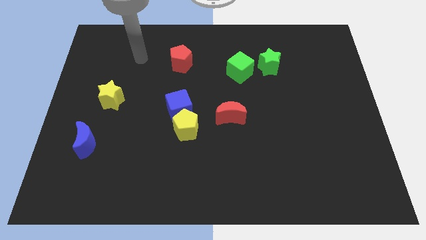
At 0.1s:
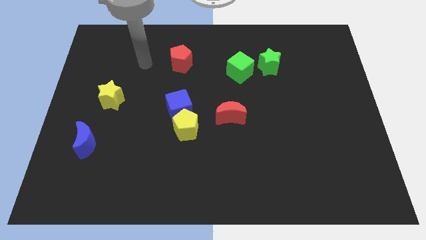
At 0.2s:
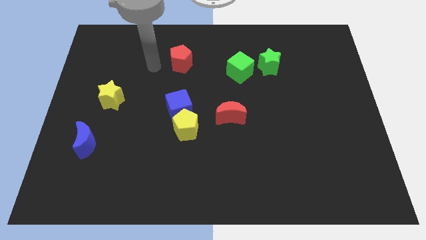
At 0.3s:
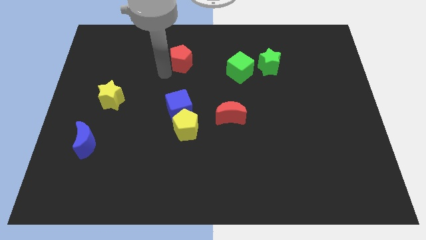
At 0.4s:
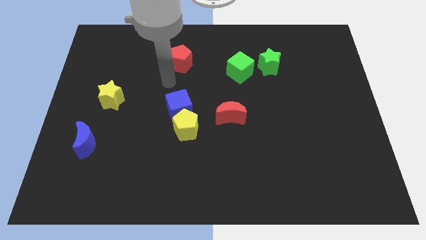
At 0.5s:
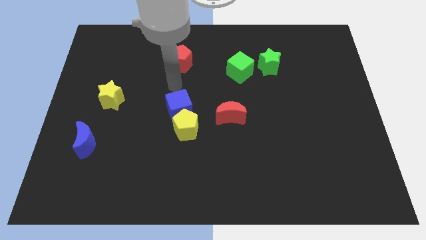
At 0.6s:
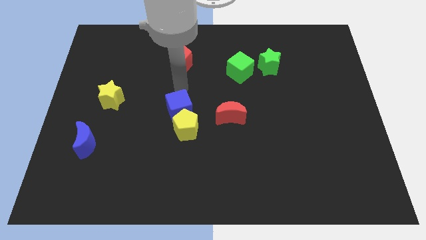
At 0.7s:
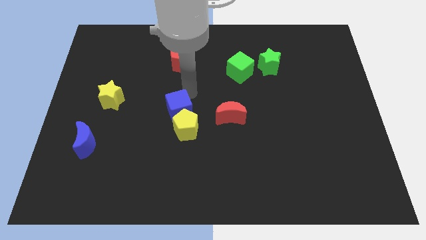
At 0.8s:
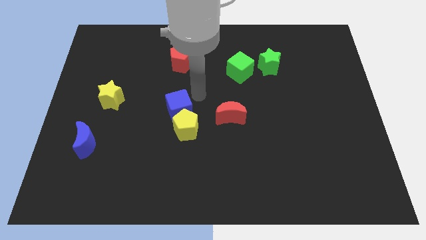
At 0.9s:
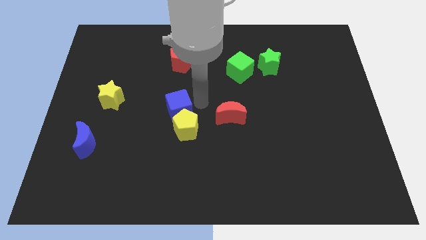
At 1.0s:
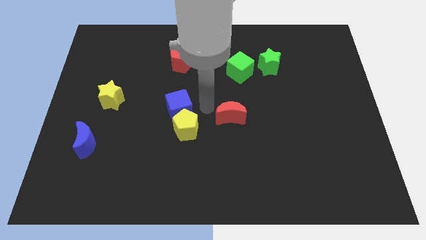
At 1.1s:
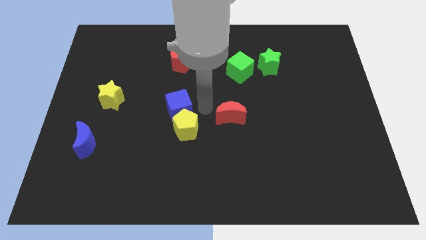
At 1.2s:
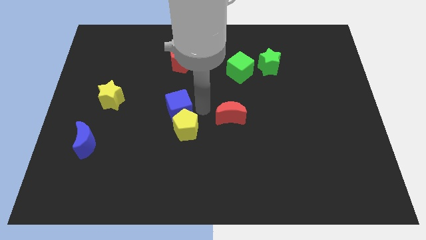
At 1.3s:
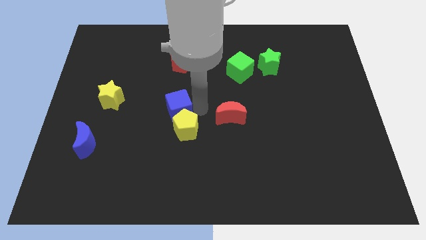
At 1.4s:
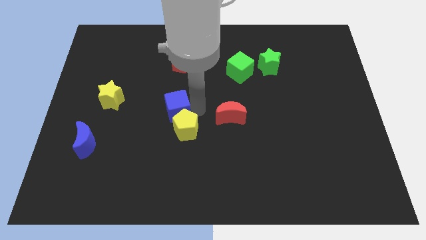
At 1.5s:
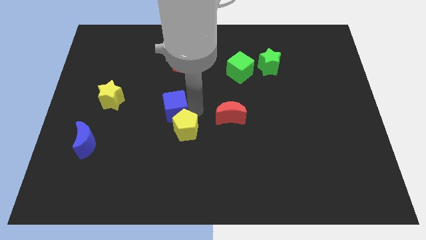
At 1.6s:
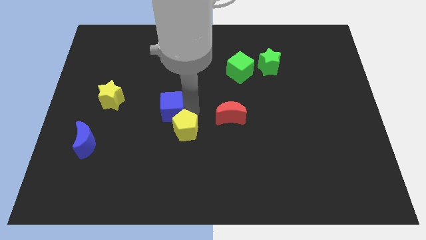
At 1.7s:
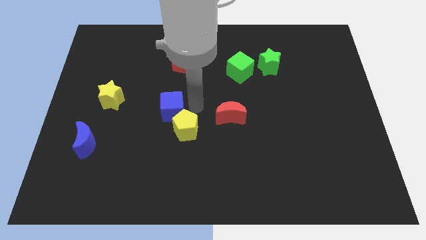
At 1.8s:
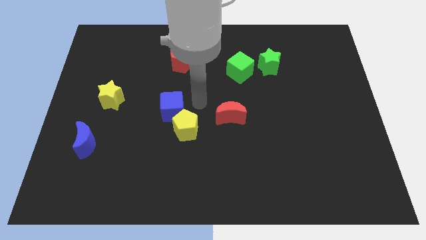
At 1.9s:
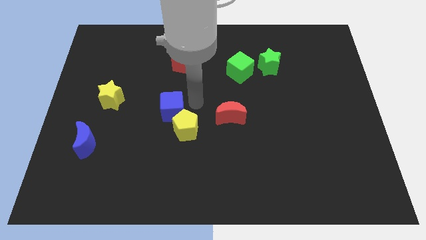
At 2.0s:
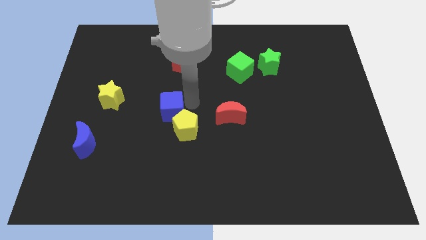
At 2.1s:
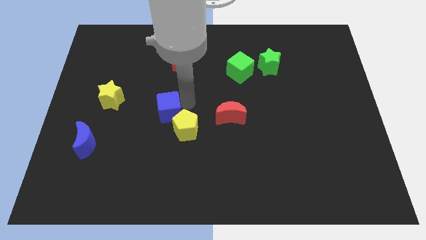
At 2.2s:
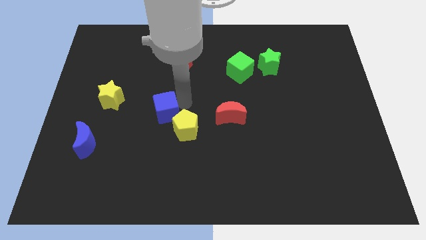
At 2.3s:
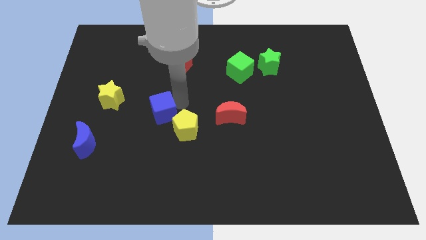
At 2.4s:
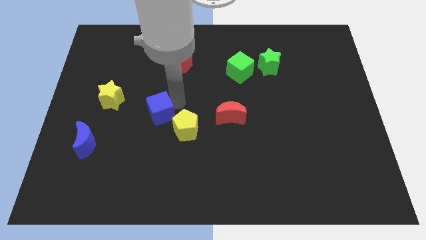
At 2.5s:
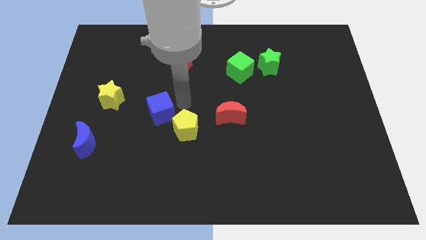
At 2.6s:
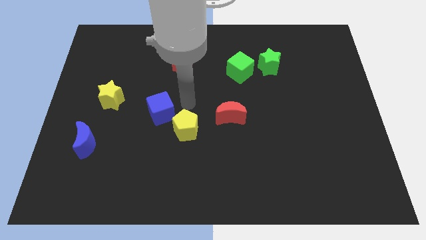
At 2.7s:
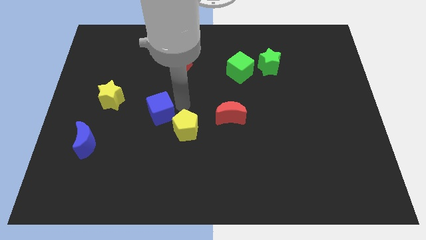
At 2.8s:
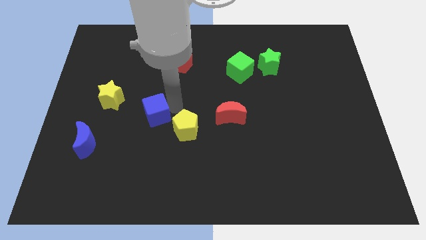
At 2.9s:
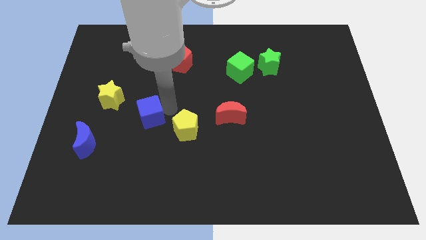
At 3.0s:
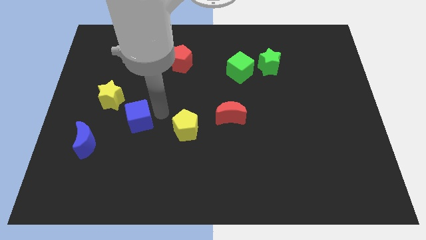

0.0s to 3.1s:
slide the blue cube slightly left

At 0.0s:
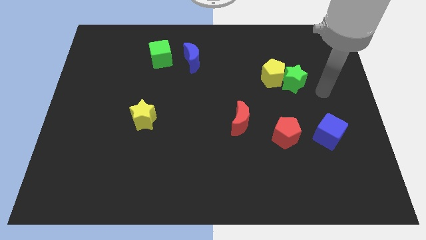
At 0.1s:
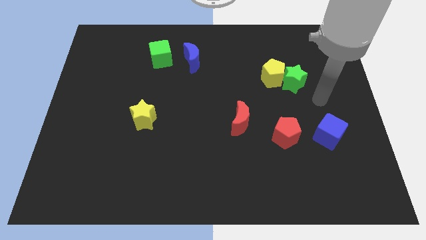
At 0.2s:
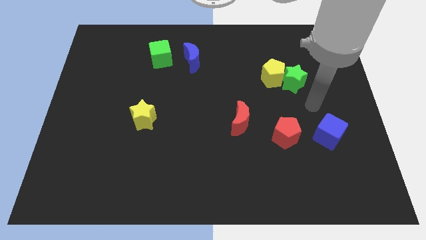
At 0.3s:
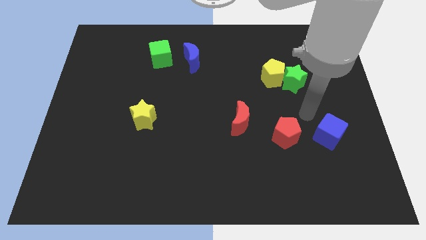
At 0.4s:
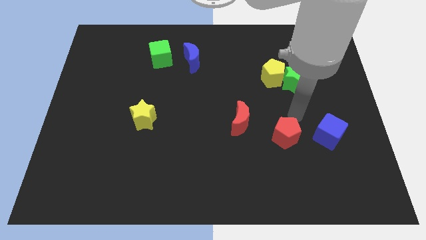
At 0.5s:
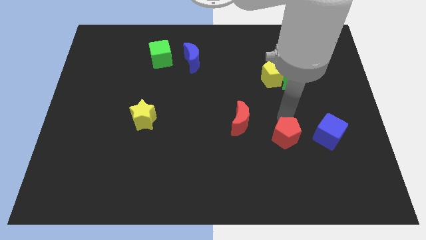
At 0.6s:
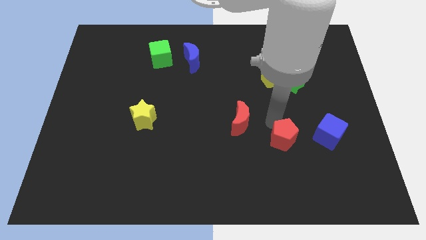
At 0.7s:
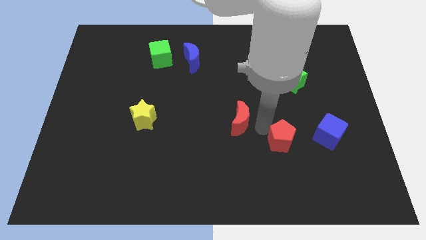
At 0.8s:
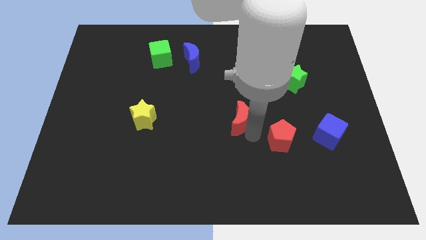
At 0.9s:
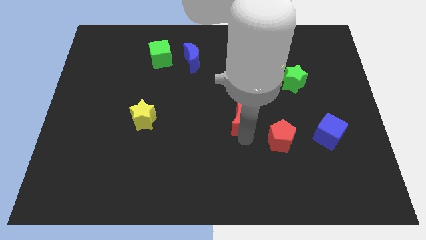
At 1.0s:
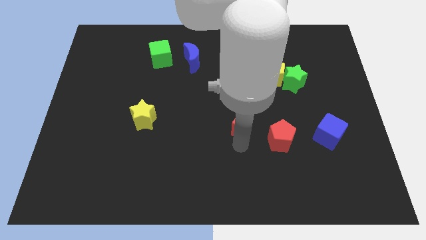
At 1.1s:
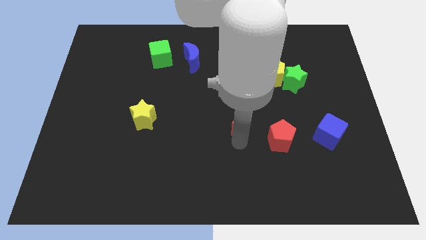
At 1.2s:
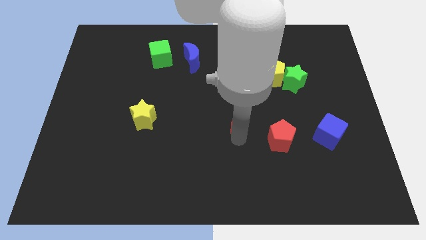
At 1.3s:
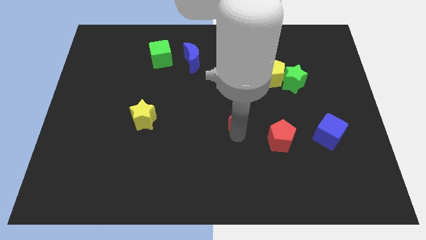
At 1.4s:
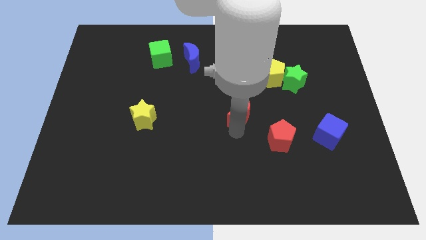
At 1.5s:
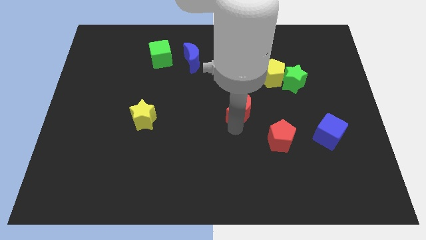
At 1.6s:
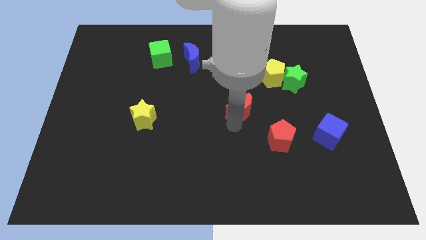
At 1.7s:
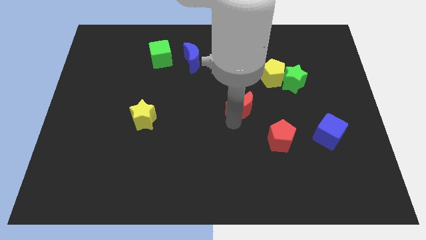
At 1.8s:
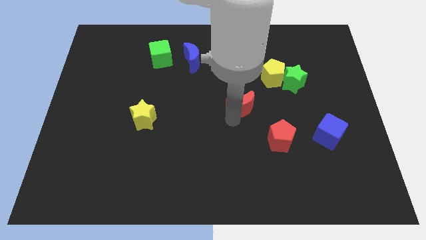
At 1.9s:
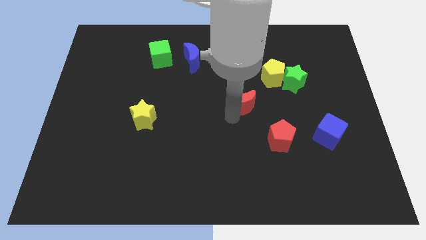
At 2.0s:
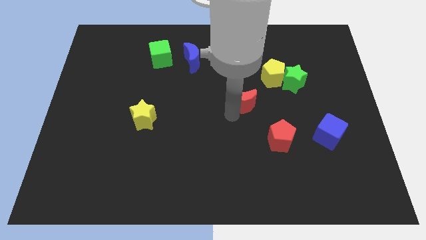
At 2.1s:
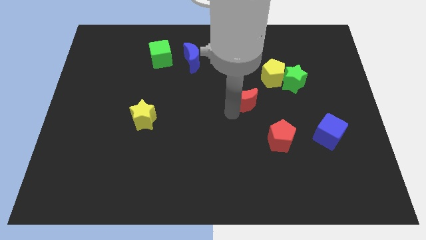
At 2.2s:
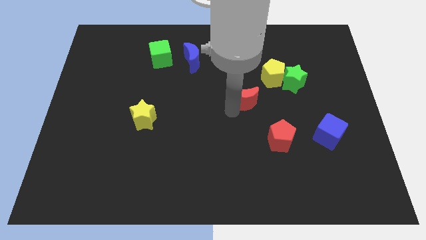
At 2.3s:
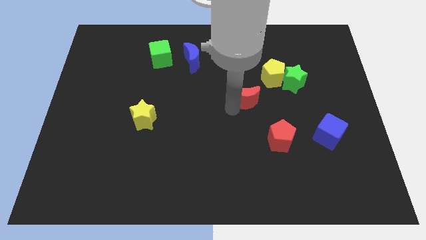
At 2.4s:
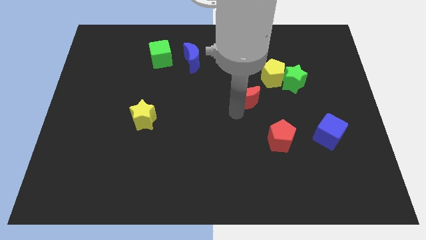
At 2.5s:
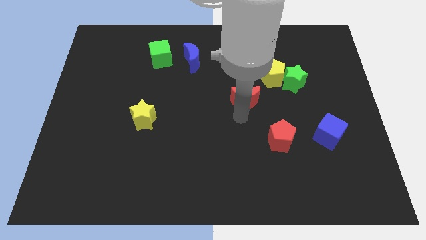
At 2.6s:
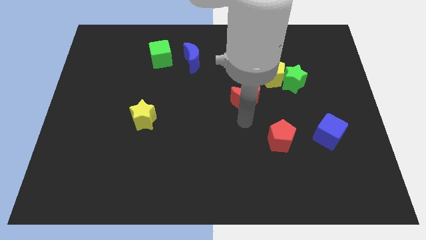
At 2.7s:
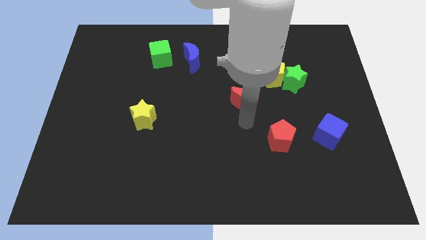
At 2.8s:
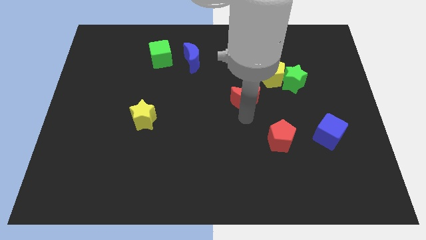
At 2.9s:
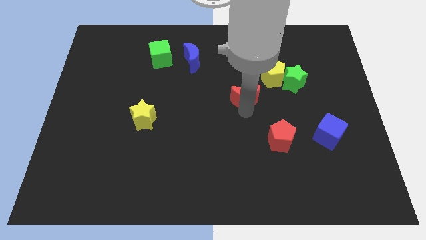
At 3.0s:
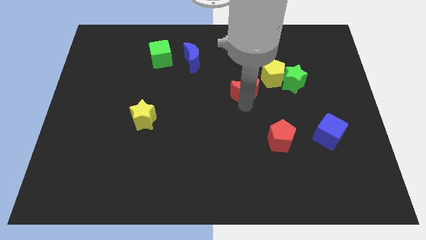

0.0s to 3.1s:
slightly move the red moon up

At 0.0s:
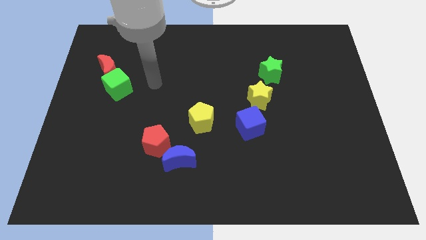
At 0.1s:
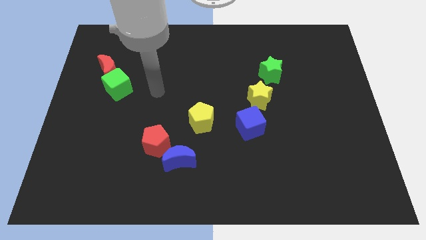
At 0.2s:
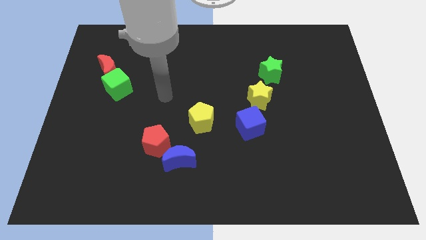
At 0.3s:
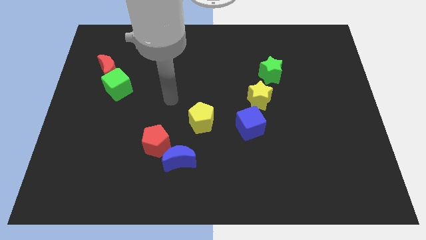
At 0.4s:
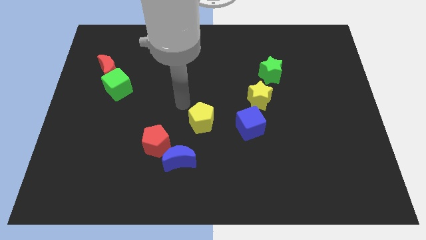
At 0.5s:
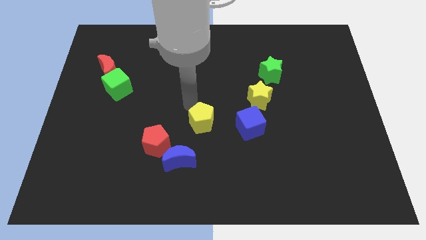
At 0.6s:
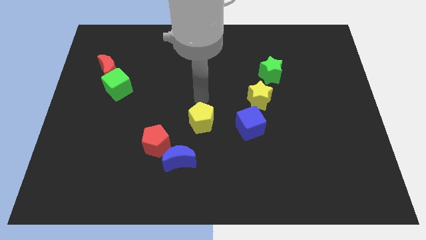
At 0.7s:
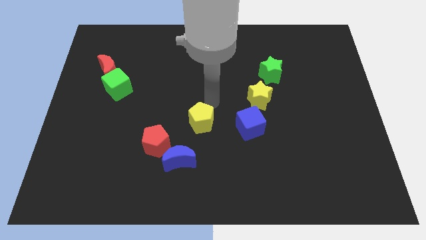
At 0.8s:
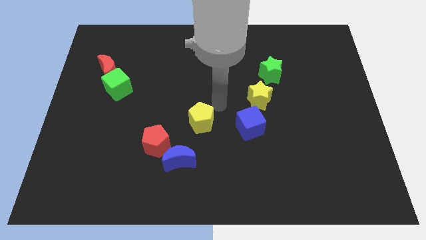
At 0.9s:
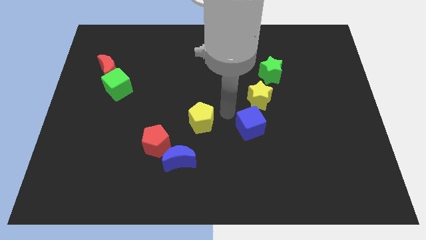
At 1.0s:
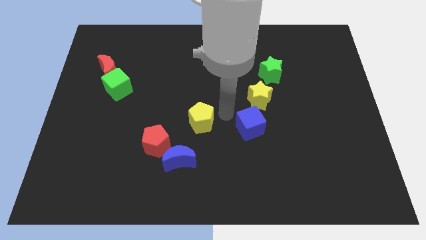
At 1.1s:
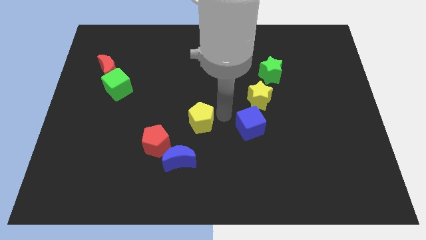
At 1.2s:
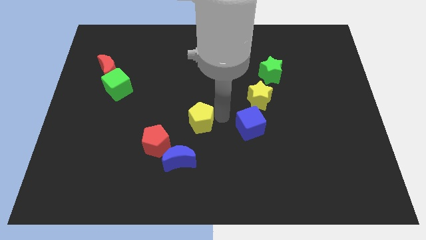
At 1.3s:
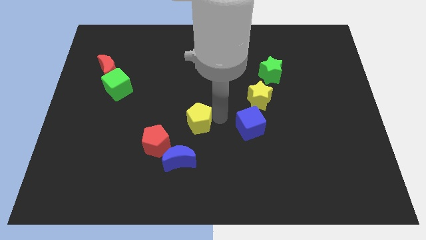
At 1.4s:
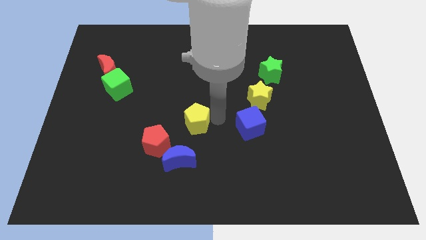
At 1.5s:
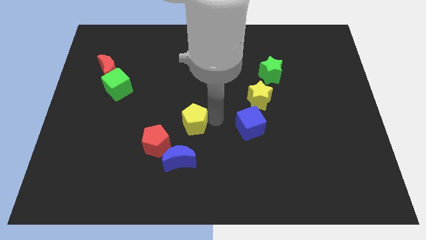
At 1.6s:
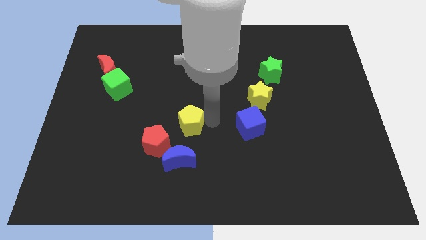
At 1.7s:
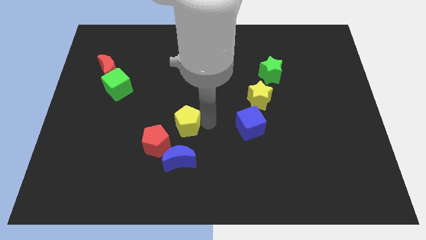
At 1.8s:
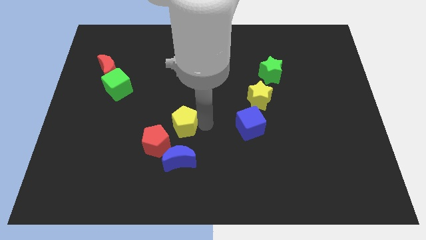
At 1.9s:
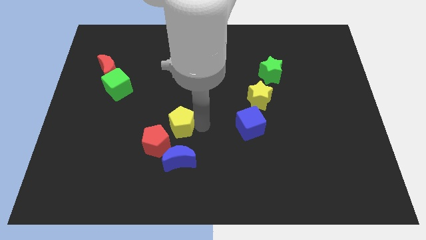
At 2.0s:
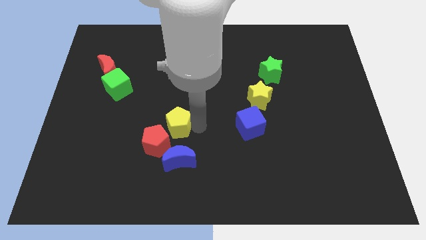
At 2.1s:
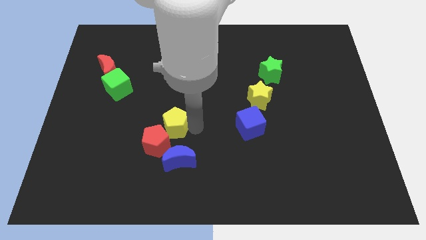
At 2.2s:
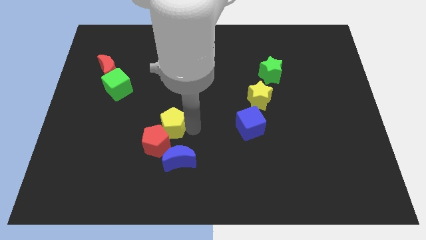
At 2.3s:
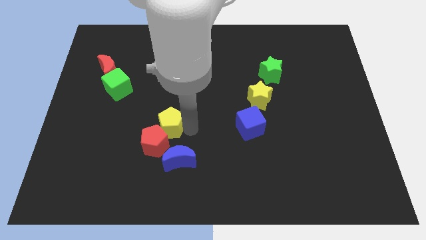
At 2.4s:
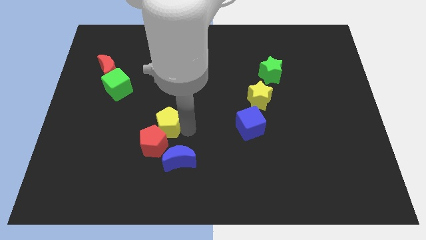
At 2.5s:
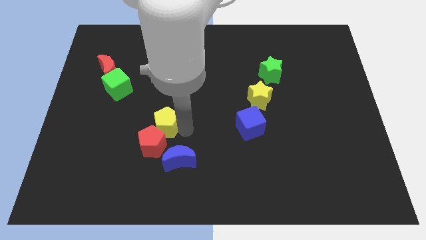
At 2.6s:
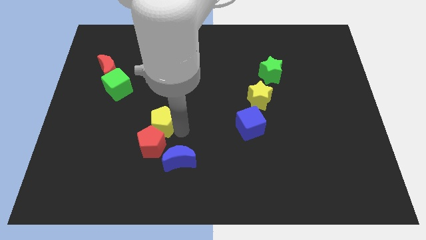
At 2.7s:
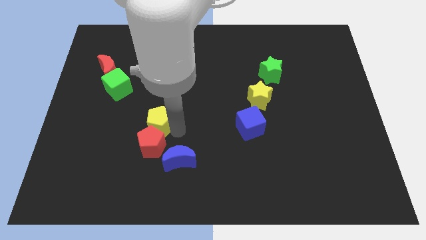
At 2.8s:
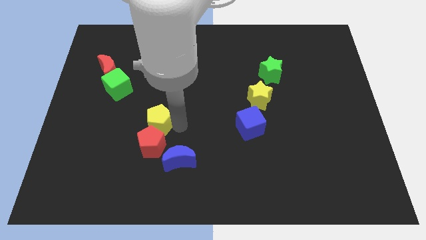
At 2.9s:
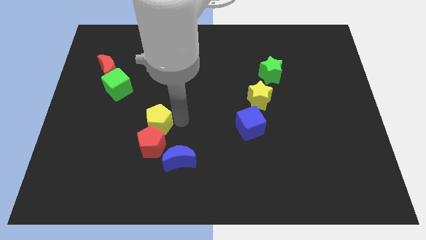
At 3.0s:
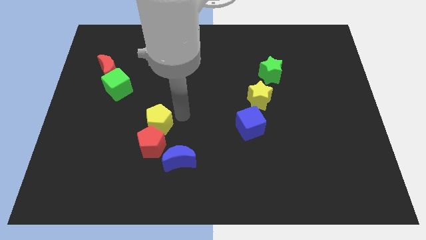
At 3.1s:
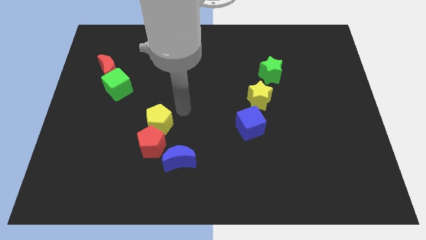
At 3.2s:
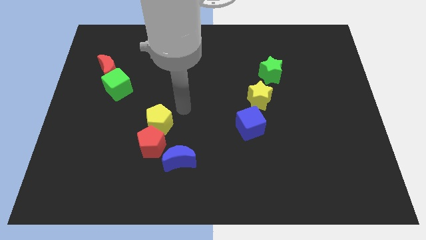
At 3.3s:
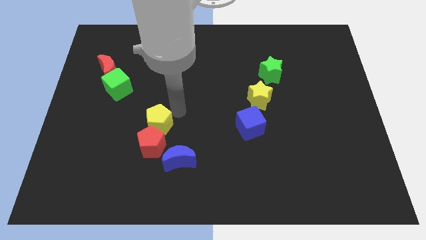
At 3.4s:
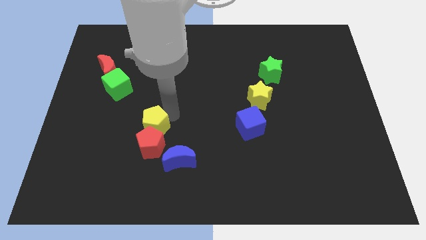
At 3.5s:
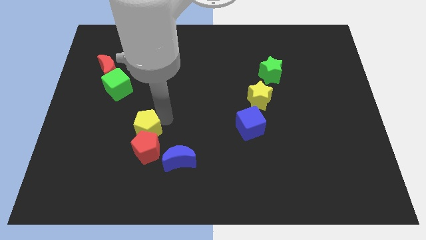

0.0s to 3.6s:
slightly move the yellow pentagon down and left diagonally
